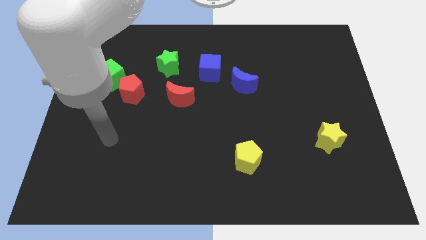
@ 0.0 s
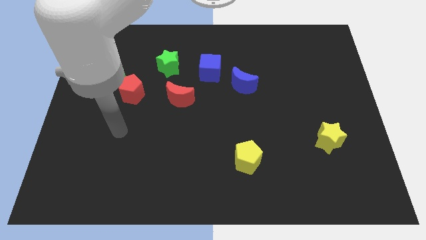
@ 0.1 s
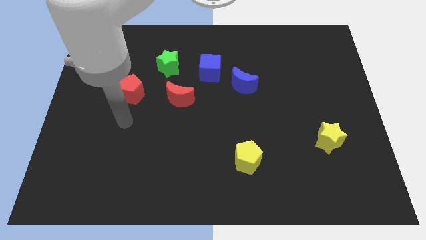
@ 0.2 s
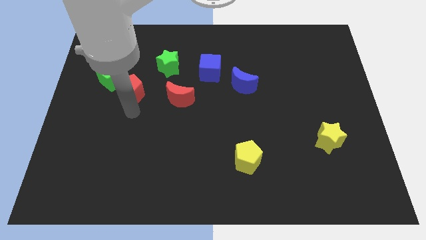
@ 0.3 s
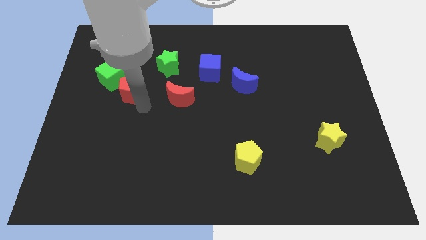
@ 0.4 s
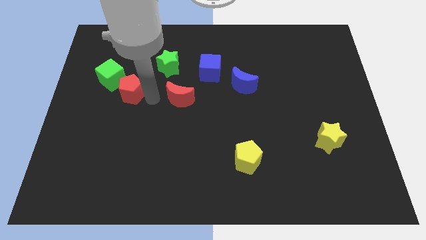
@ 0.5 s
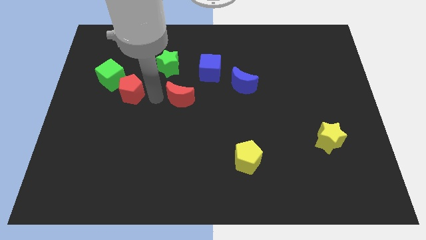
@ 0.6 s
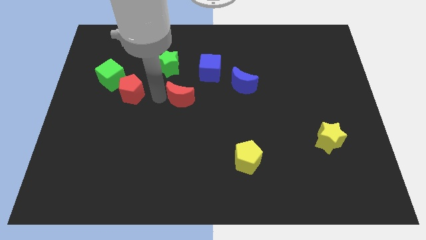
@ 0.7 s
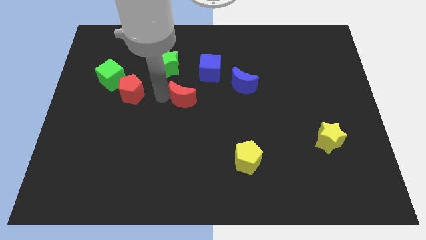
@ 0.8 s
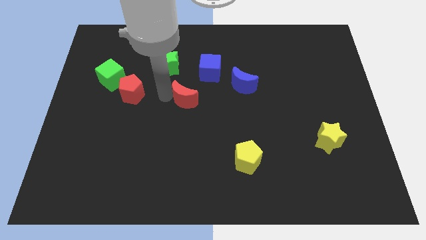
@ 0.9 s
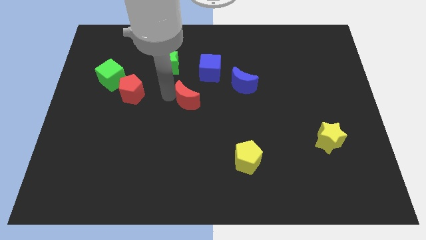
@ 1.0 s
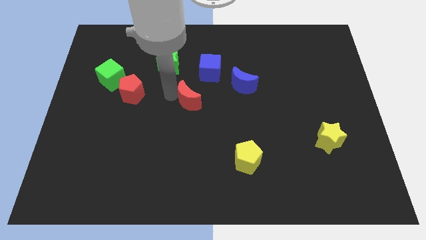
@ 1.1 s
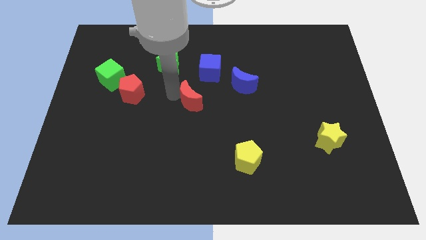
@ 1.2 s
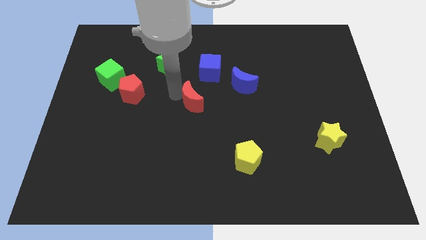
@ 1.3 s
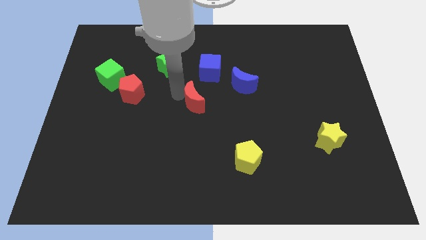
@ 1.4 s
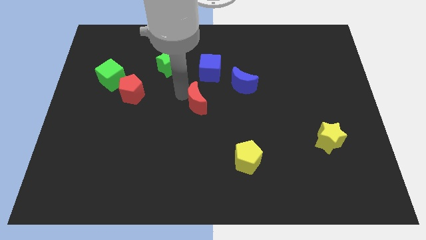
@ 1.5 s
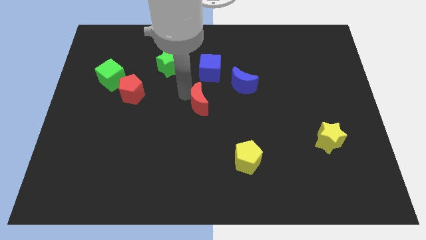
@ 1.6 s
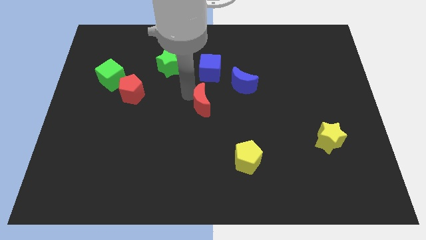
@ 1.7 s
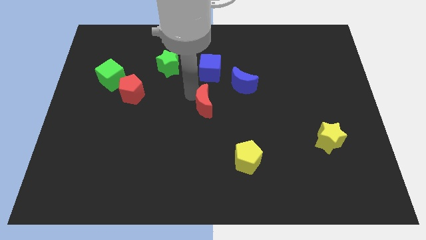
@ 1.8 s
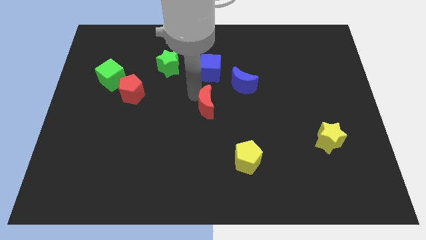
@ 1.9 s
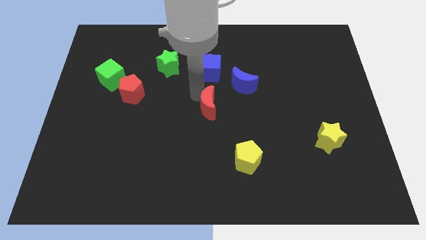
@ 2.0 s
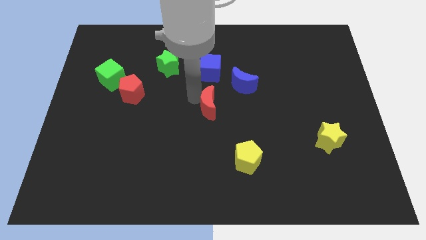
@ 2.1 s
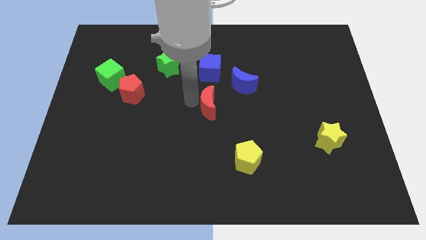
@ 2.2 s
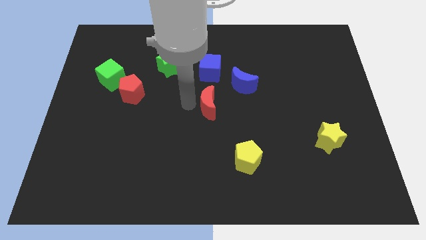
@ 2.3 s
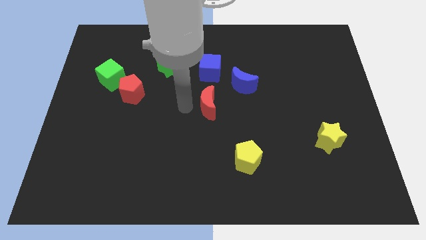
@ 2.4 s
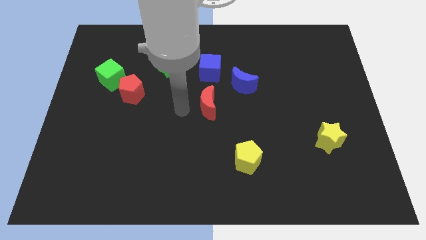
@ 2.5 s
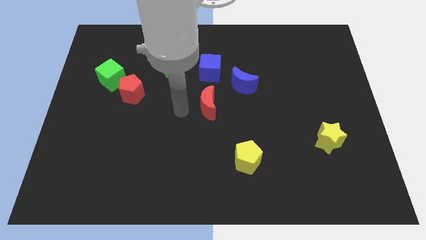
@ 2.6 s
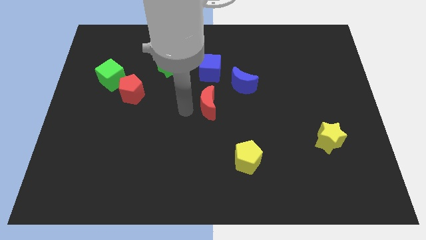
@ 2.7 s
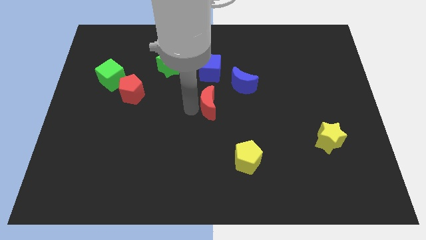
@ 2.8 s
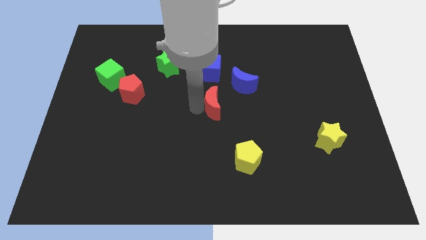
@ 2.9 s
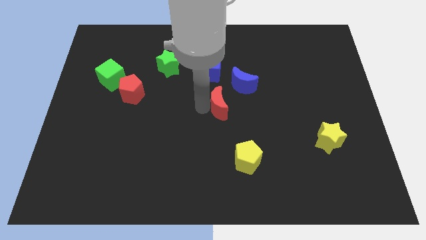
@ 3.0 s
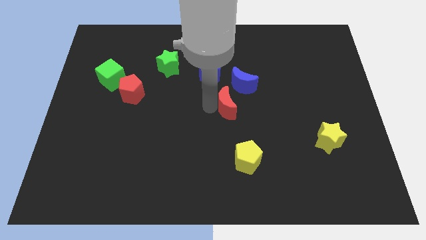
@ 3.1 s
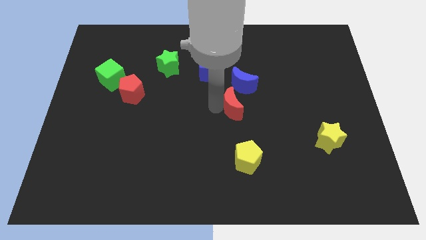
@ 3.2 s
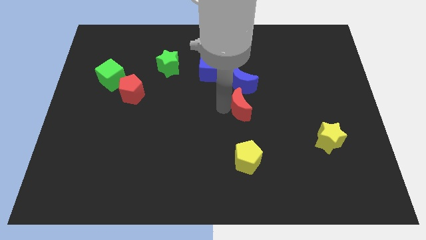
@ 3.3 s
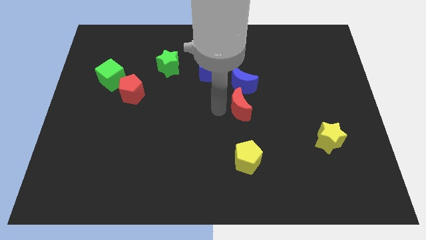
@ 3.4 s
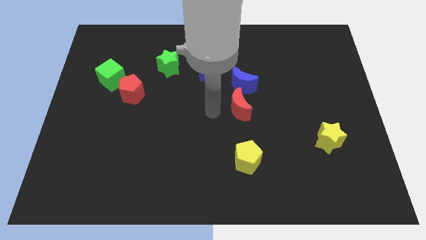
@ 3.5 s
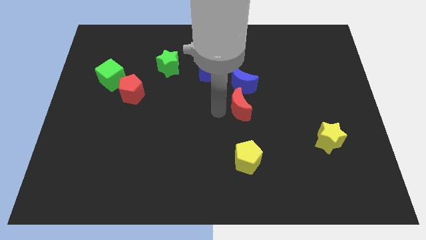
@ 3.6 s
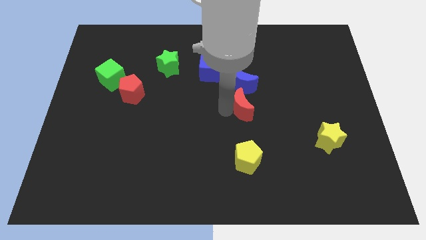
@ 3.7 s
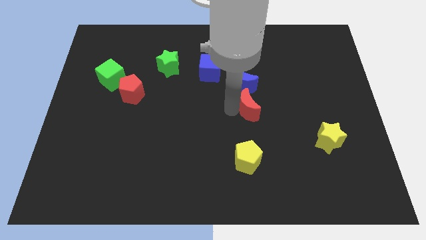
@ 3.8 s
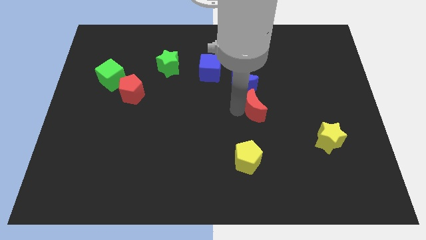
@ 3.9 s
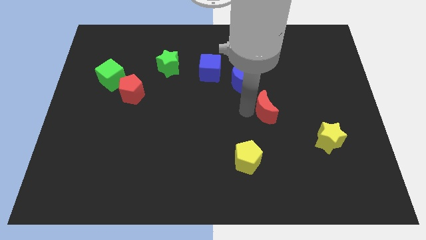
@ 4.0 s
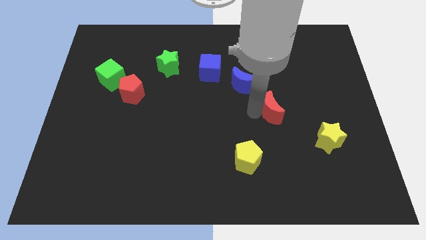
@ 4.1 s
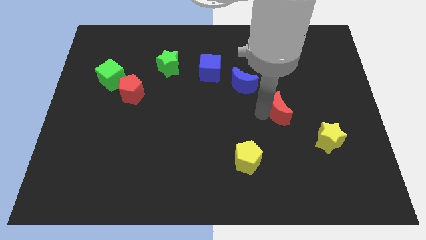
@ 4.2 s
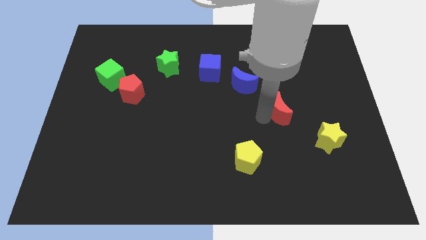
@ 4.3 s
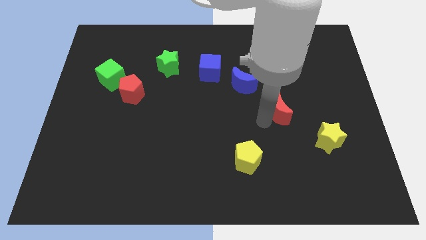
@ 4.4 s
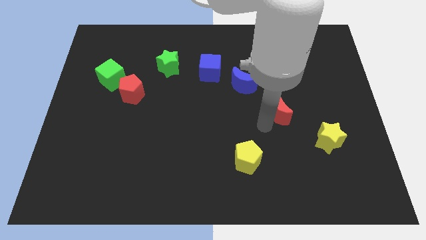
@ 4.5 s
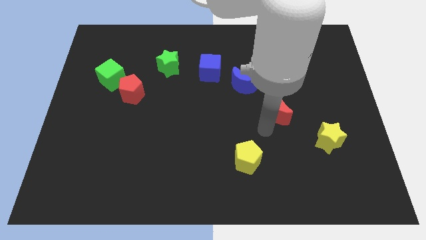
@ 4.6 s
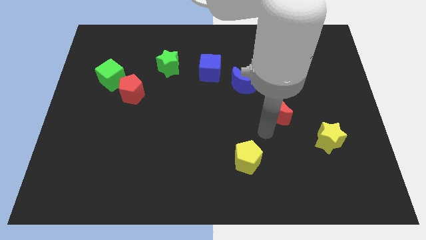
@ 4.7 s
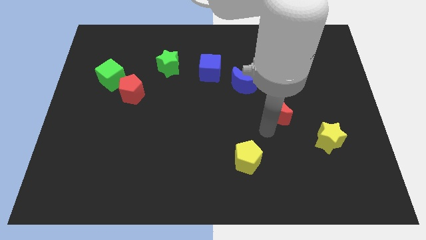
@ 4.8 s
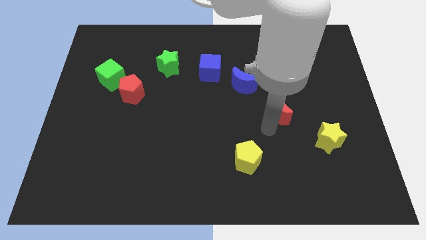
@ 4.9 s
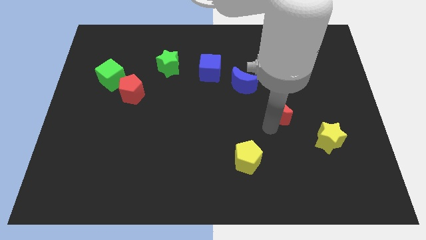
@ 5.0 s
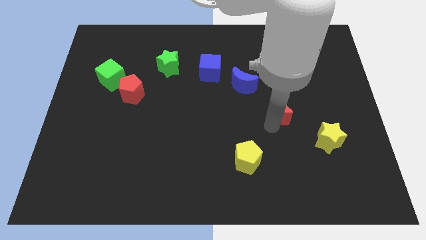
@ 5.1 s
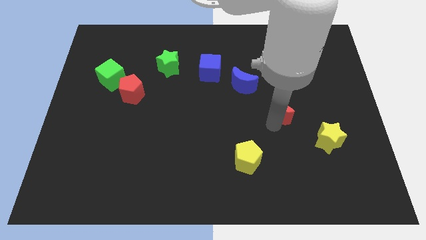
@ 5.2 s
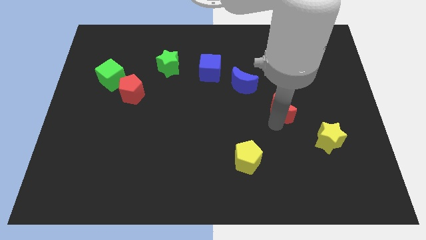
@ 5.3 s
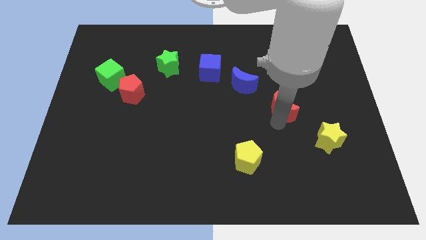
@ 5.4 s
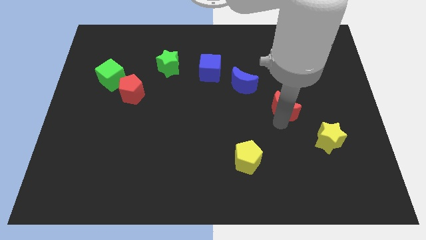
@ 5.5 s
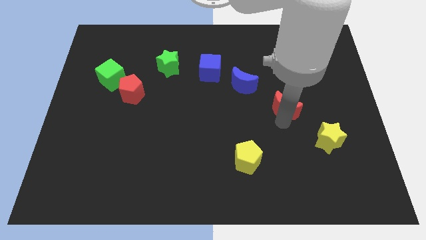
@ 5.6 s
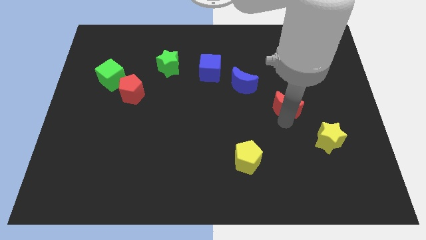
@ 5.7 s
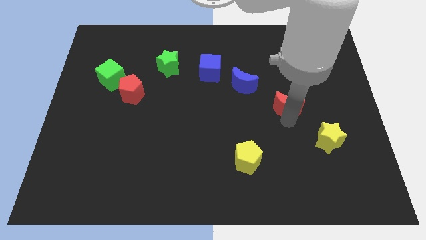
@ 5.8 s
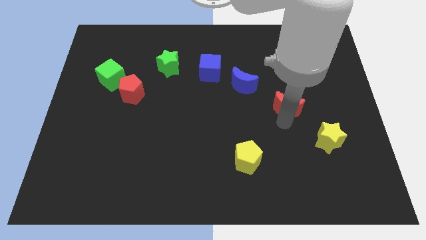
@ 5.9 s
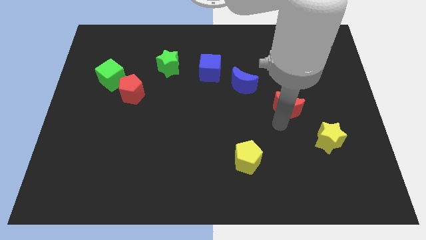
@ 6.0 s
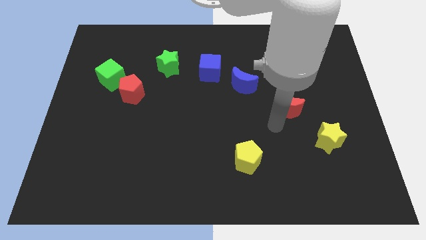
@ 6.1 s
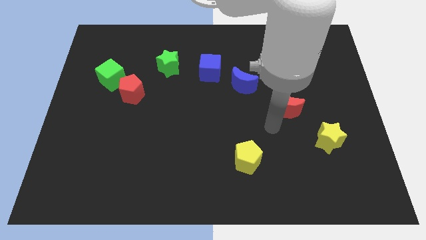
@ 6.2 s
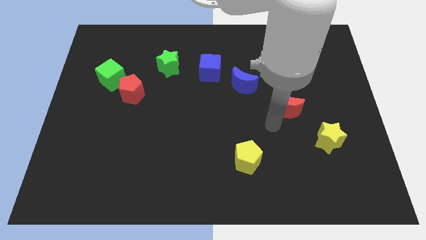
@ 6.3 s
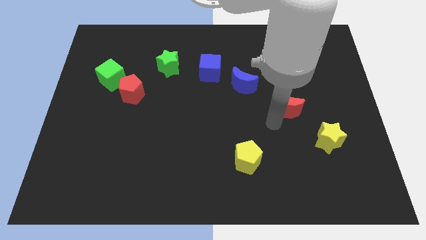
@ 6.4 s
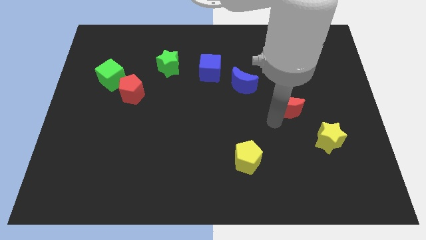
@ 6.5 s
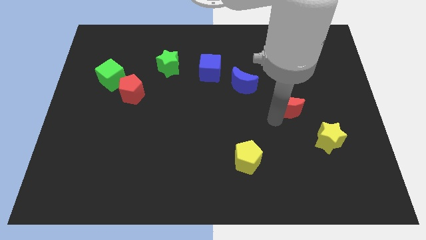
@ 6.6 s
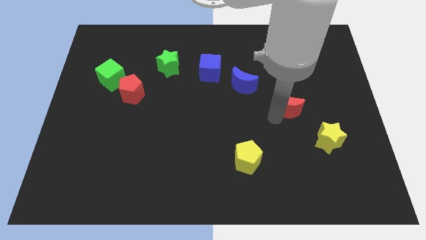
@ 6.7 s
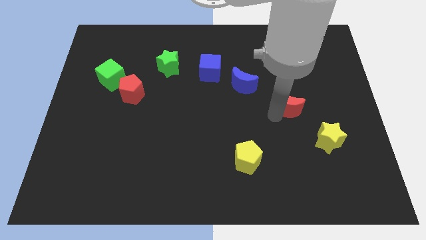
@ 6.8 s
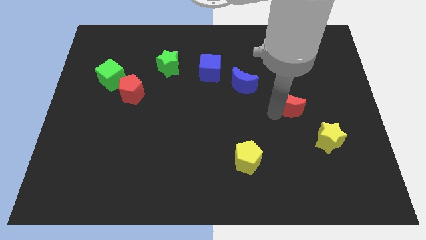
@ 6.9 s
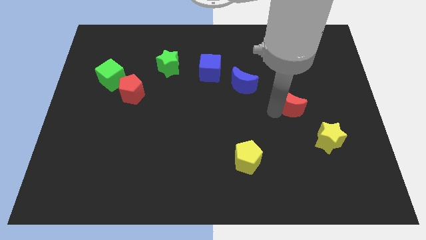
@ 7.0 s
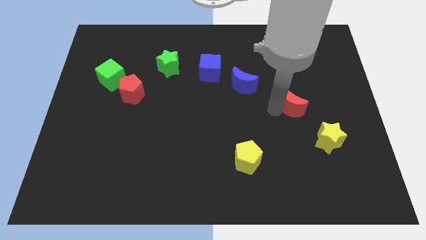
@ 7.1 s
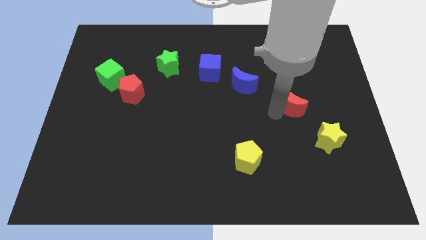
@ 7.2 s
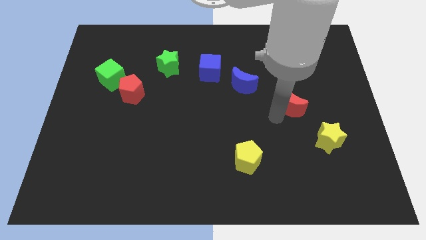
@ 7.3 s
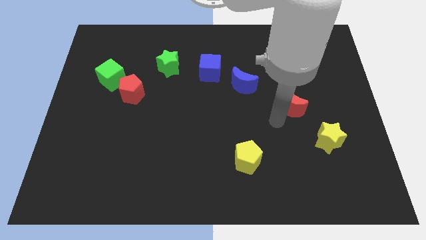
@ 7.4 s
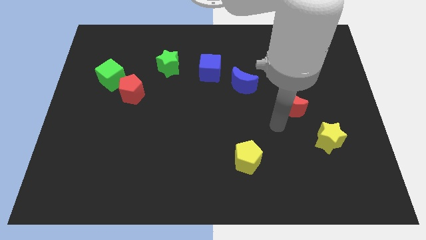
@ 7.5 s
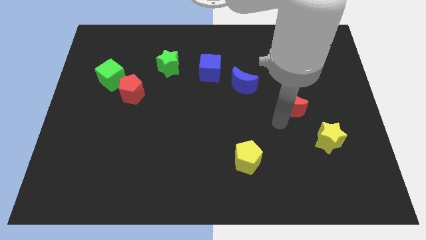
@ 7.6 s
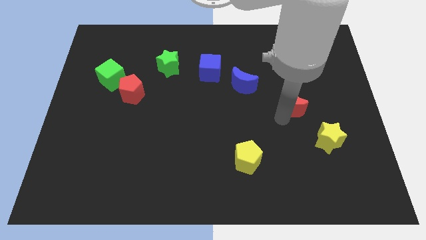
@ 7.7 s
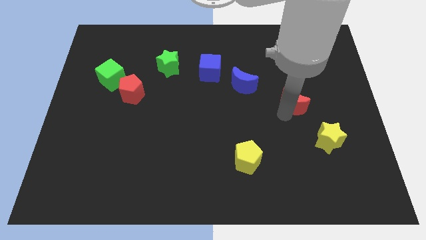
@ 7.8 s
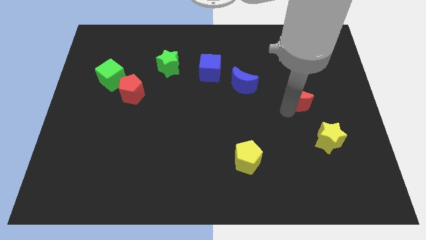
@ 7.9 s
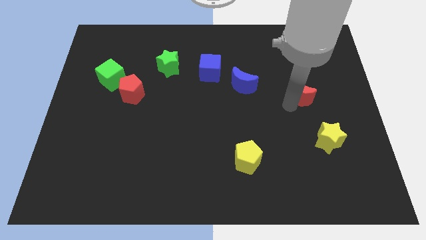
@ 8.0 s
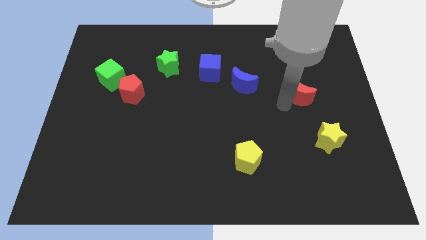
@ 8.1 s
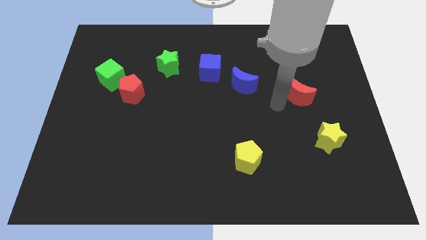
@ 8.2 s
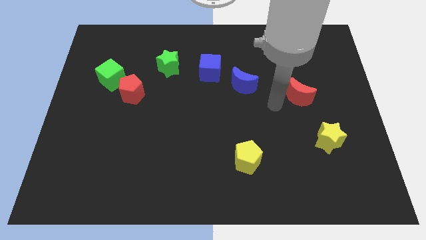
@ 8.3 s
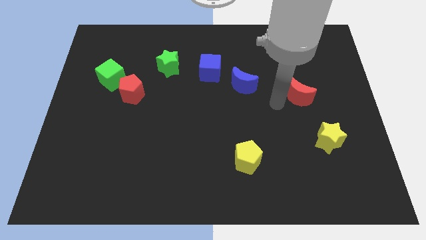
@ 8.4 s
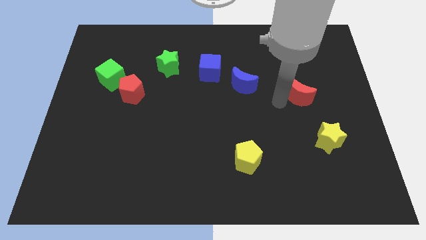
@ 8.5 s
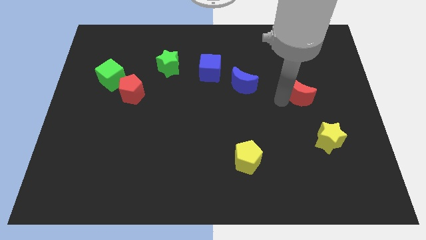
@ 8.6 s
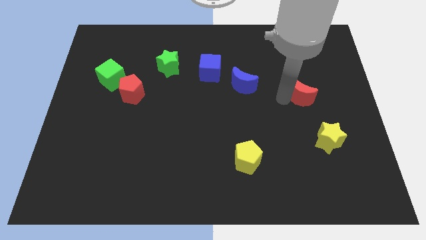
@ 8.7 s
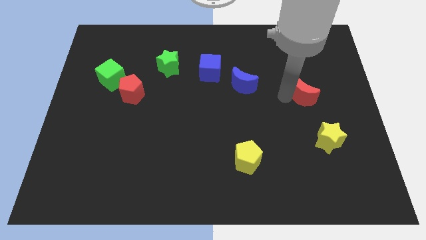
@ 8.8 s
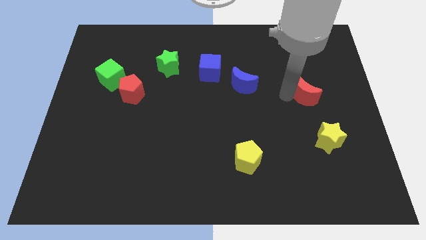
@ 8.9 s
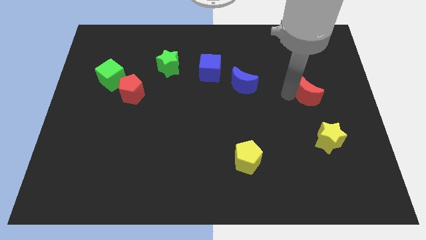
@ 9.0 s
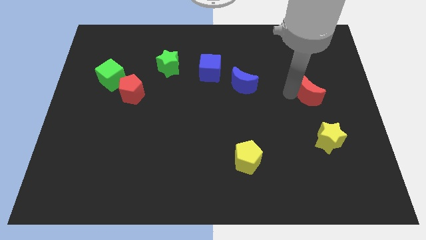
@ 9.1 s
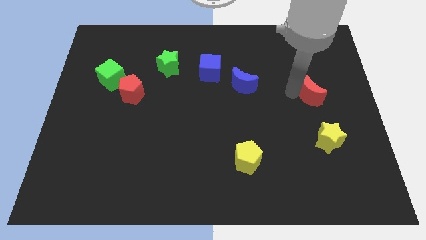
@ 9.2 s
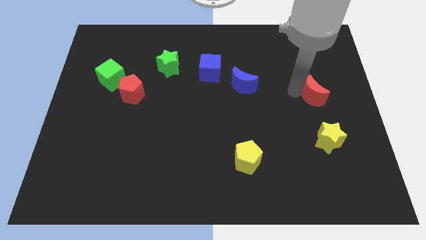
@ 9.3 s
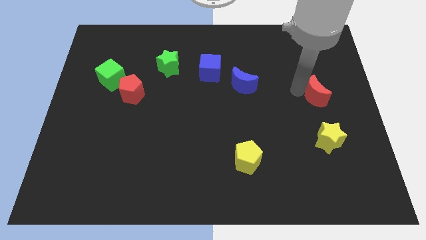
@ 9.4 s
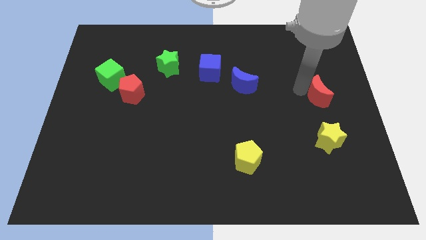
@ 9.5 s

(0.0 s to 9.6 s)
put the red moon to the right side of the board
